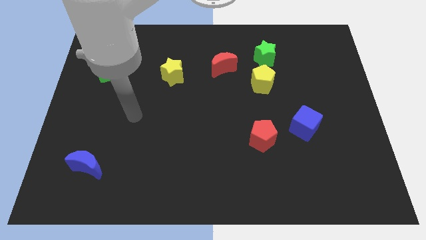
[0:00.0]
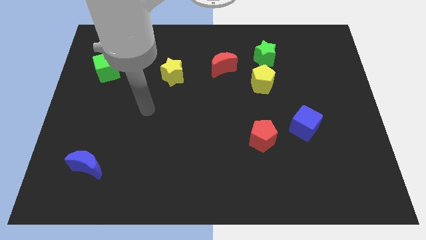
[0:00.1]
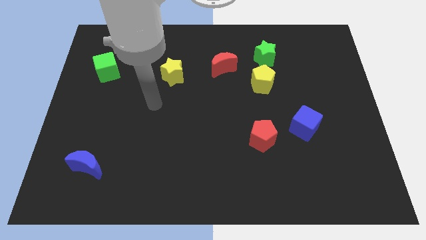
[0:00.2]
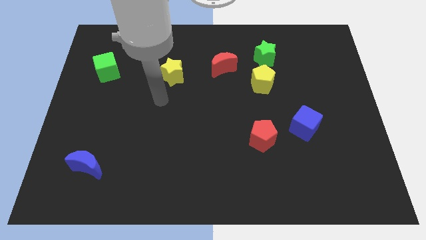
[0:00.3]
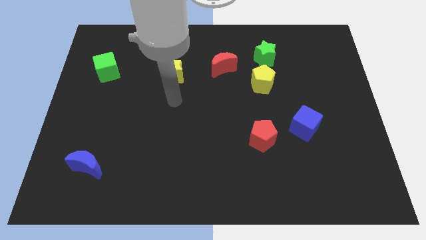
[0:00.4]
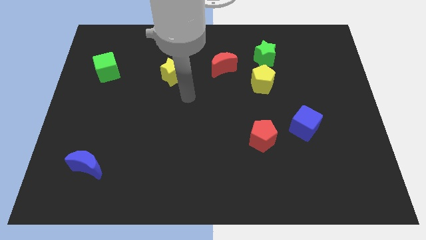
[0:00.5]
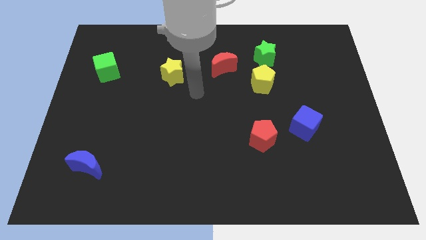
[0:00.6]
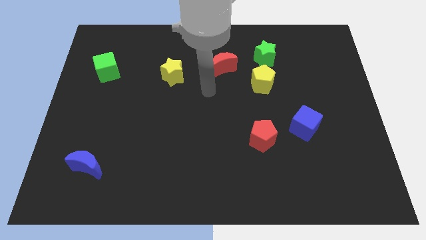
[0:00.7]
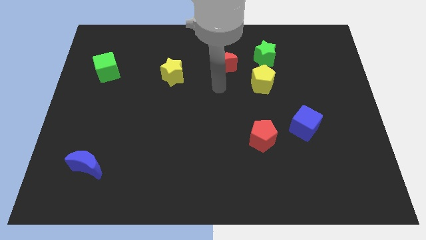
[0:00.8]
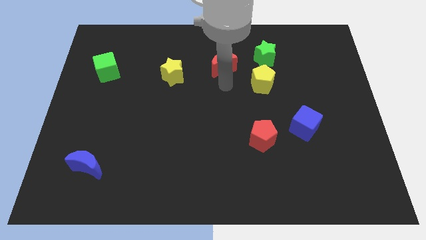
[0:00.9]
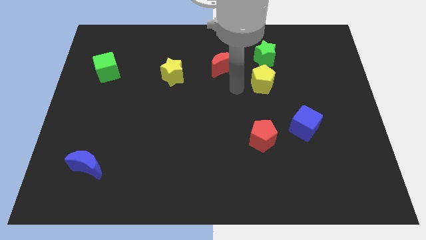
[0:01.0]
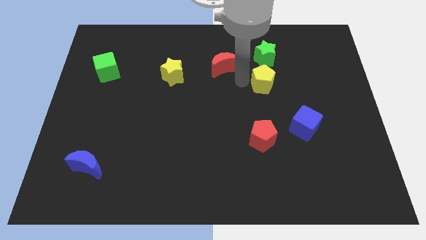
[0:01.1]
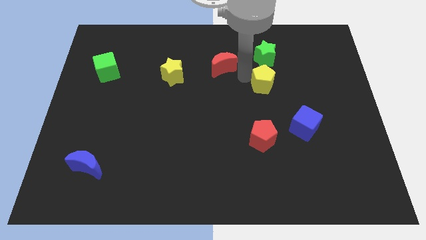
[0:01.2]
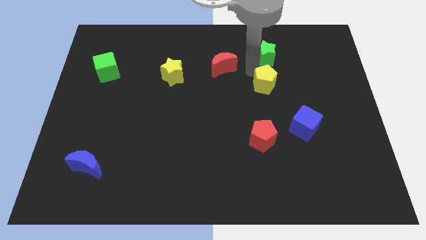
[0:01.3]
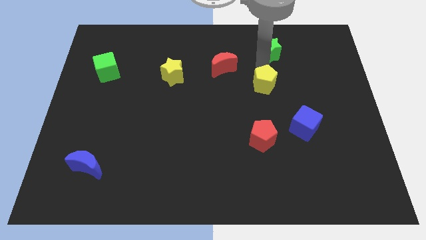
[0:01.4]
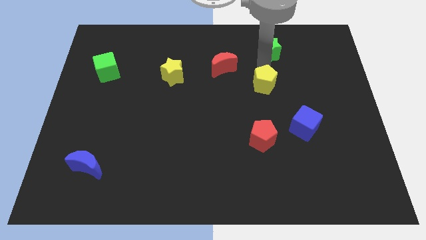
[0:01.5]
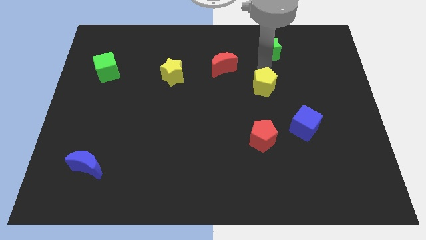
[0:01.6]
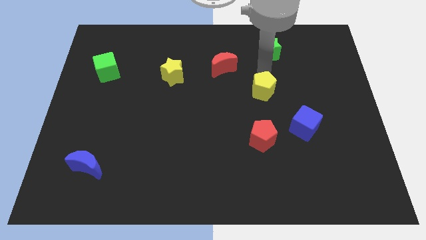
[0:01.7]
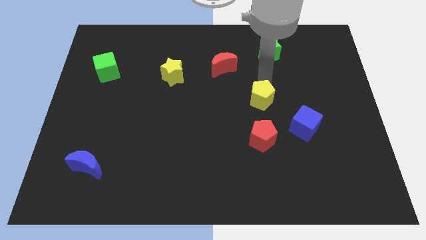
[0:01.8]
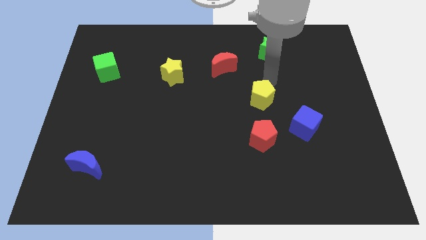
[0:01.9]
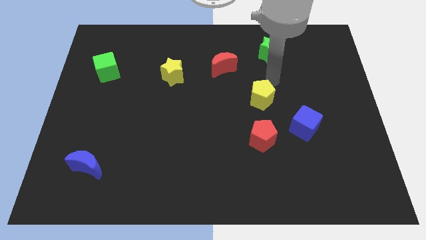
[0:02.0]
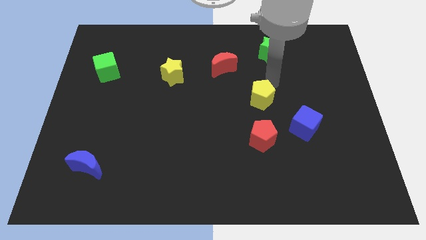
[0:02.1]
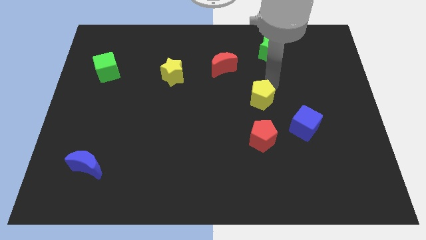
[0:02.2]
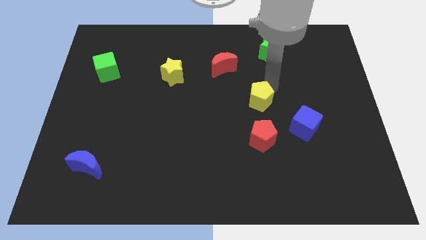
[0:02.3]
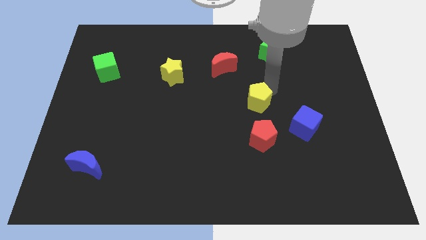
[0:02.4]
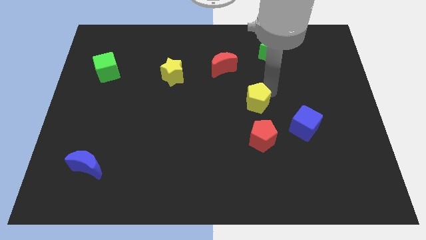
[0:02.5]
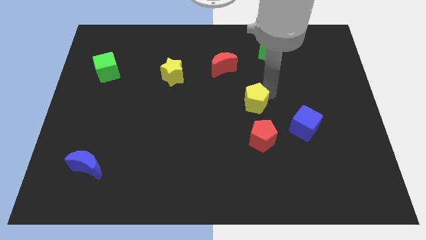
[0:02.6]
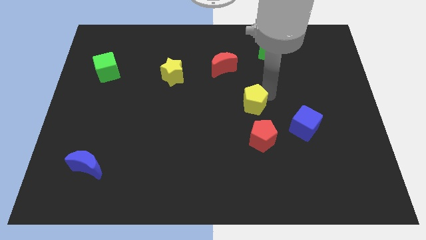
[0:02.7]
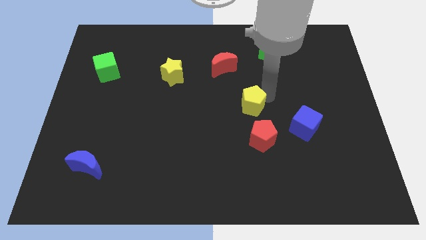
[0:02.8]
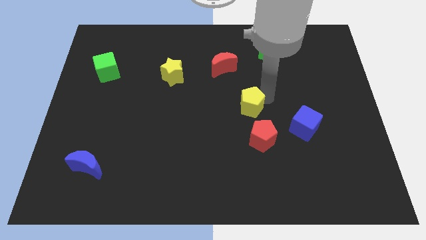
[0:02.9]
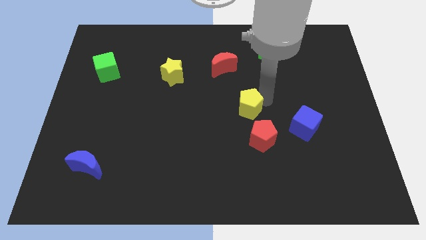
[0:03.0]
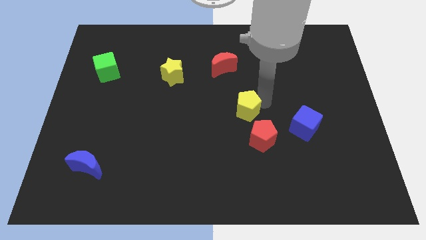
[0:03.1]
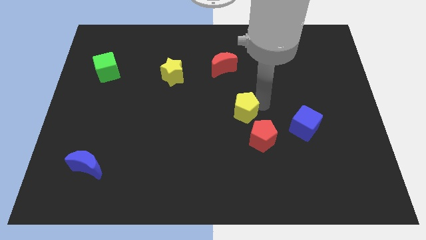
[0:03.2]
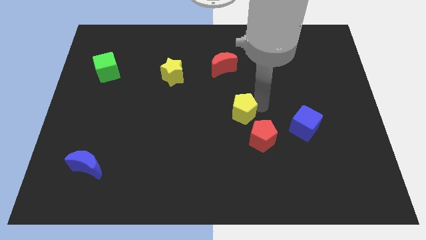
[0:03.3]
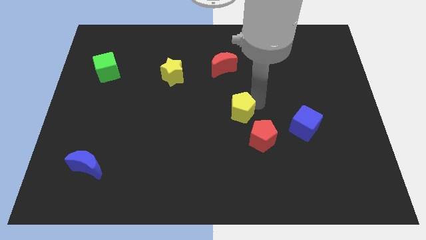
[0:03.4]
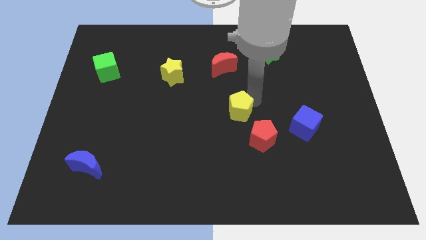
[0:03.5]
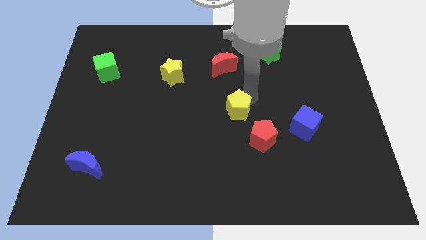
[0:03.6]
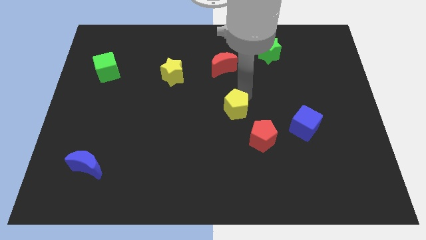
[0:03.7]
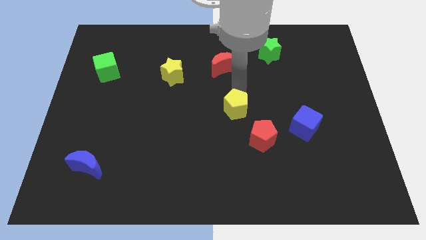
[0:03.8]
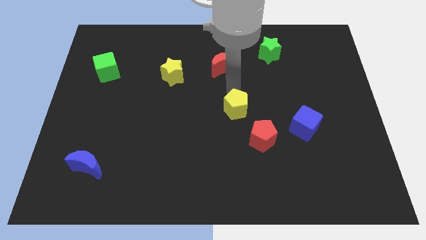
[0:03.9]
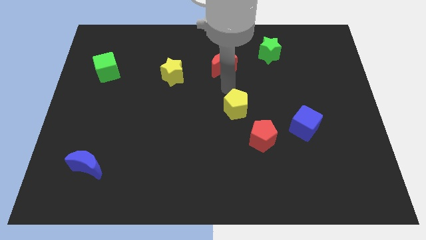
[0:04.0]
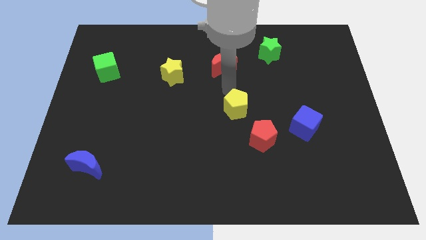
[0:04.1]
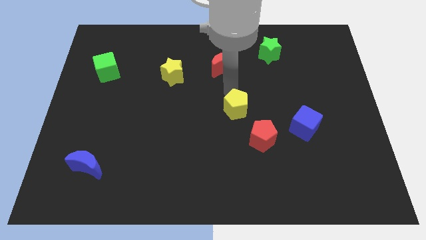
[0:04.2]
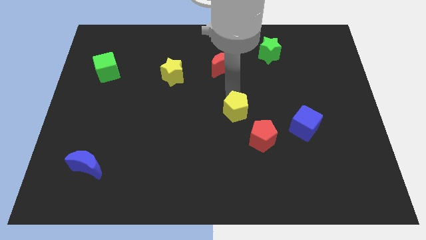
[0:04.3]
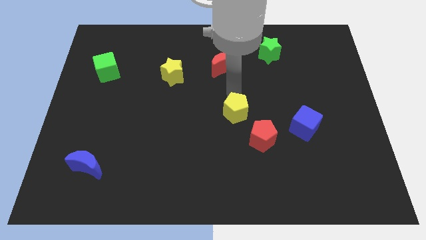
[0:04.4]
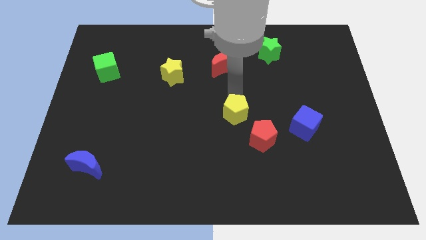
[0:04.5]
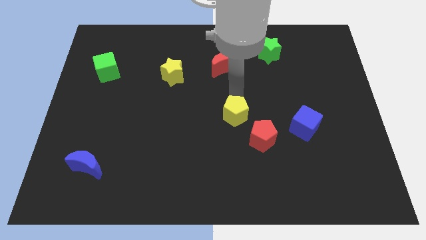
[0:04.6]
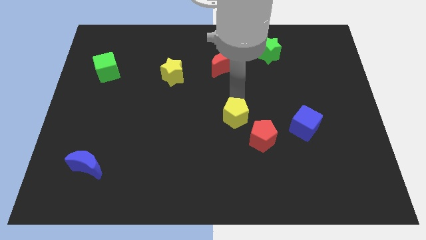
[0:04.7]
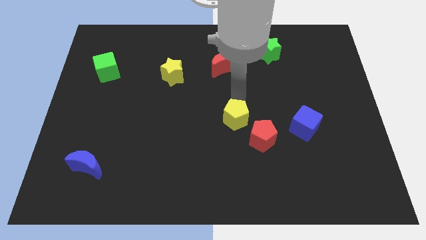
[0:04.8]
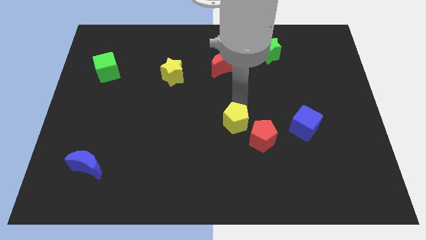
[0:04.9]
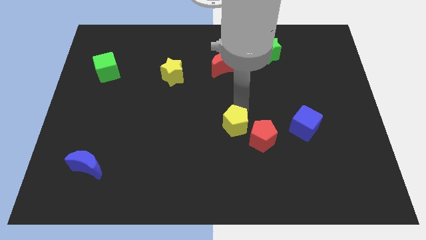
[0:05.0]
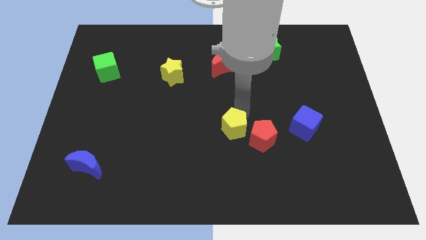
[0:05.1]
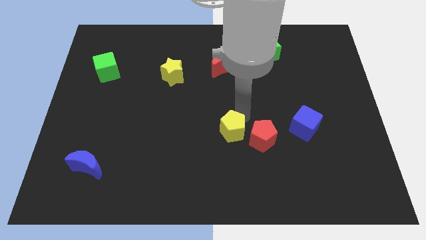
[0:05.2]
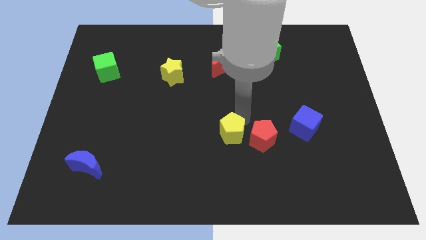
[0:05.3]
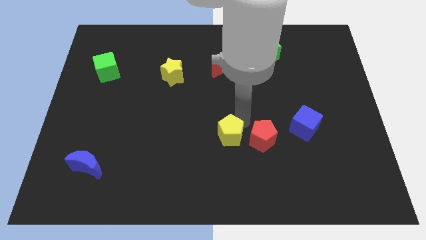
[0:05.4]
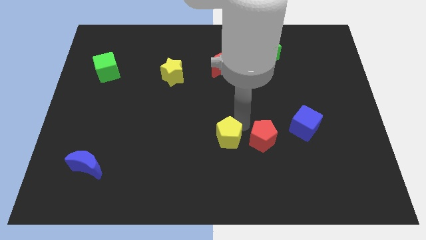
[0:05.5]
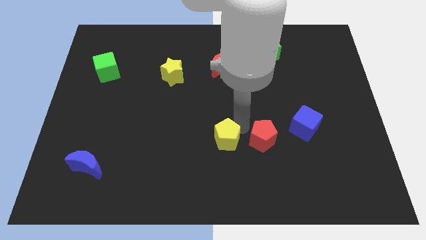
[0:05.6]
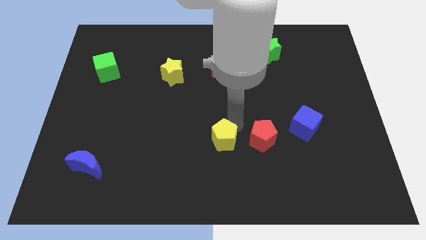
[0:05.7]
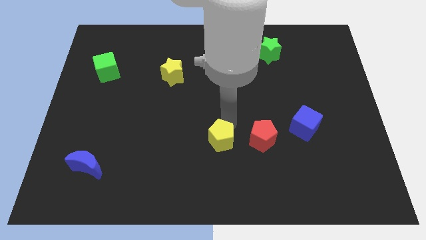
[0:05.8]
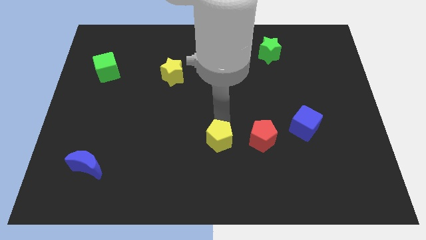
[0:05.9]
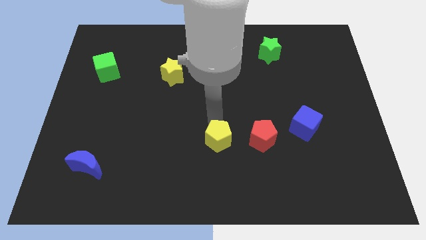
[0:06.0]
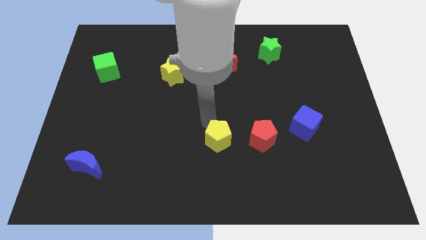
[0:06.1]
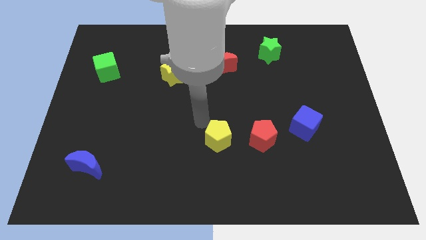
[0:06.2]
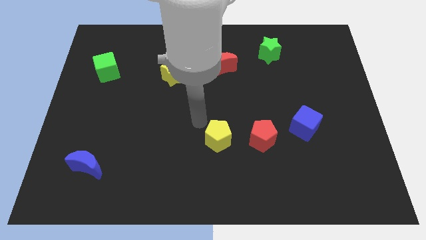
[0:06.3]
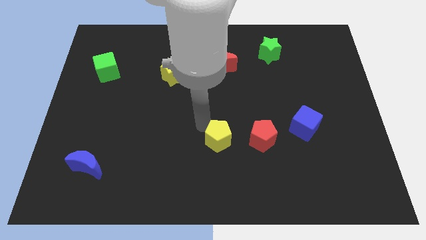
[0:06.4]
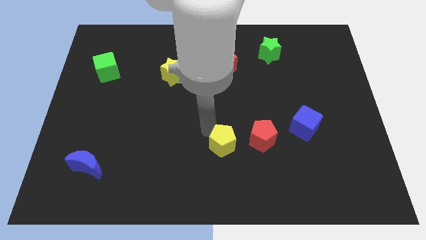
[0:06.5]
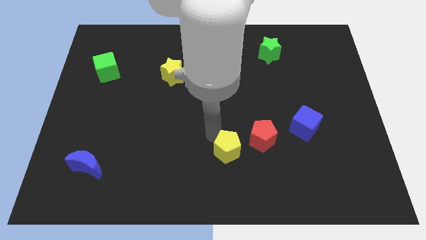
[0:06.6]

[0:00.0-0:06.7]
slide the yellow pentagon to the bottom left side of the red pentagon

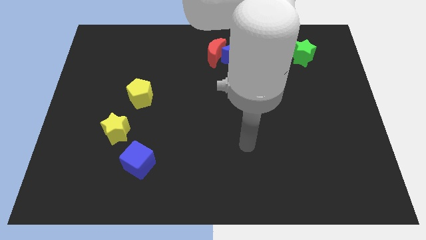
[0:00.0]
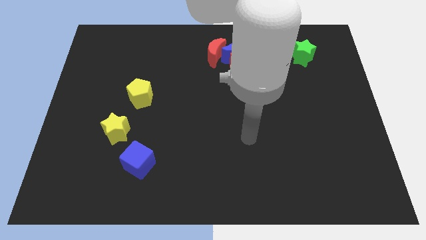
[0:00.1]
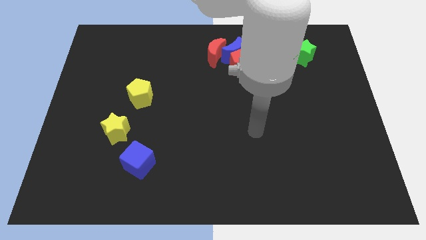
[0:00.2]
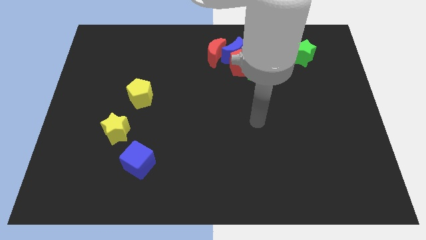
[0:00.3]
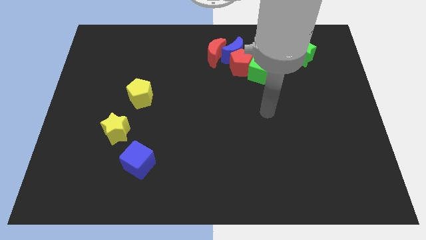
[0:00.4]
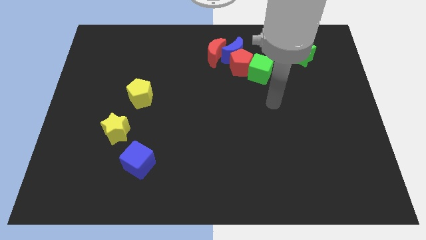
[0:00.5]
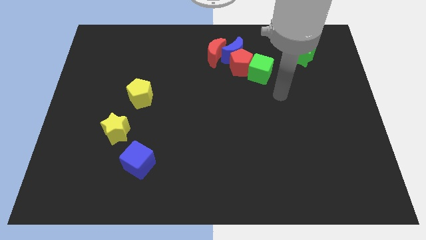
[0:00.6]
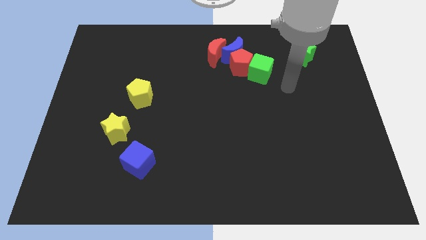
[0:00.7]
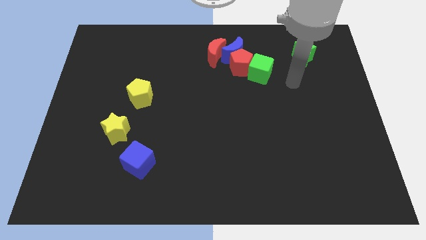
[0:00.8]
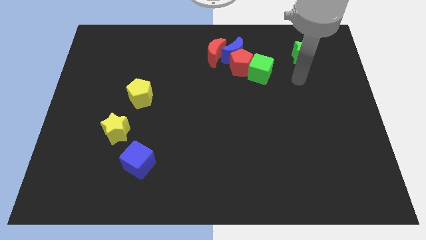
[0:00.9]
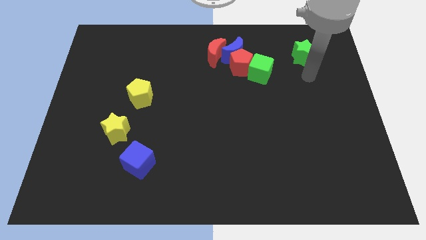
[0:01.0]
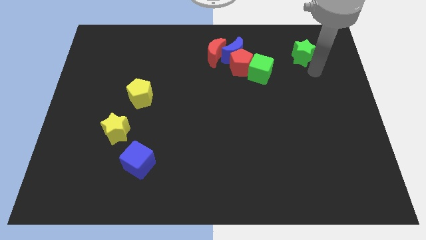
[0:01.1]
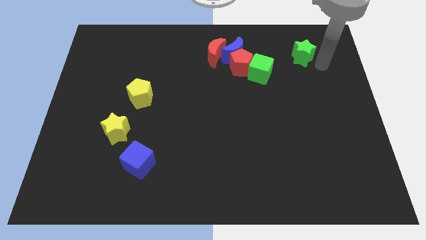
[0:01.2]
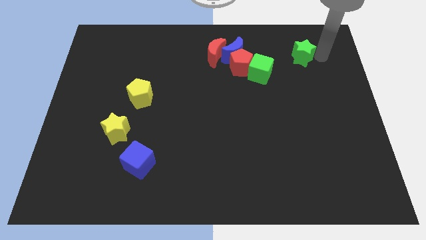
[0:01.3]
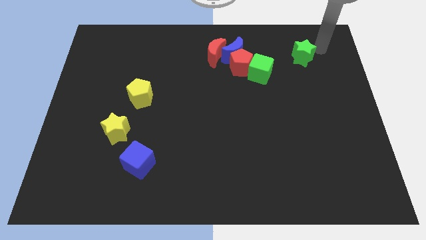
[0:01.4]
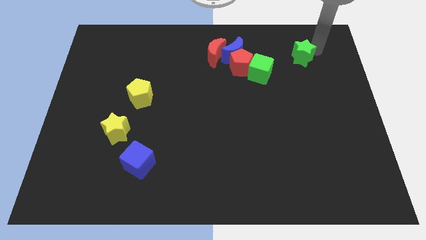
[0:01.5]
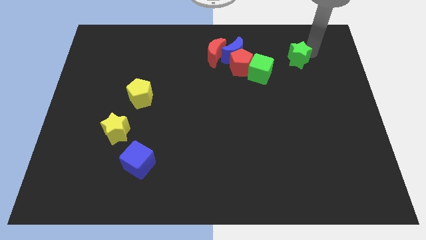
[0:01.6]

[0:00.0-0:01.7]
put the green star to the right side of the red pentagon
